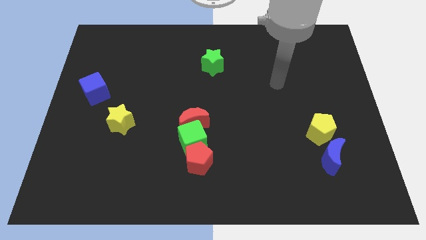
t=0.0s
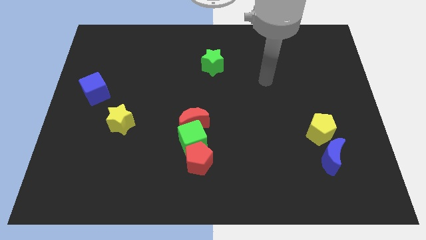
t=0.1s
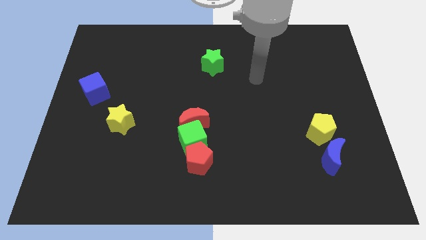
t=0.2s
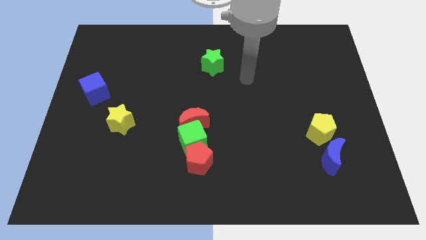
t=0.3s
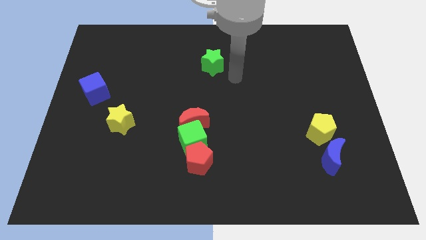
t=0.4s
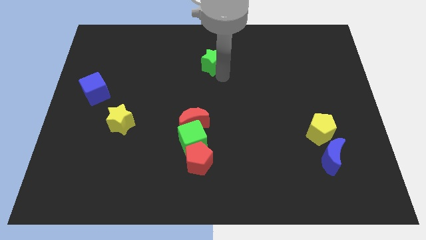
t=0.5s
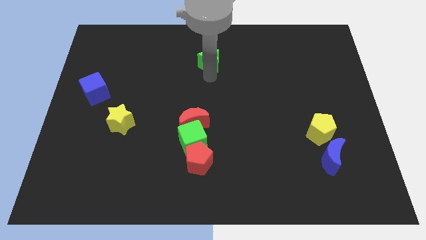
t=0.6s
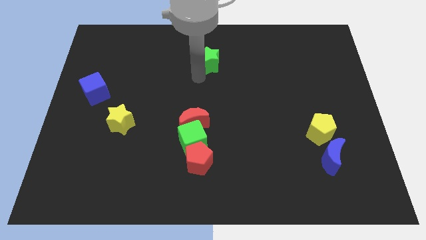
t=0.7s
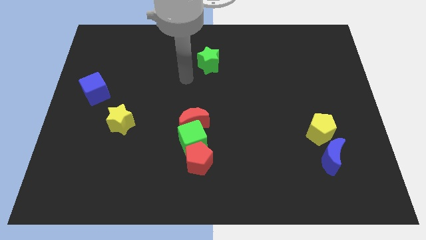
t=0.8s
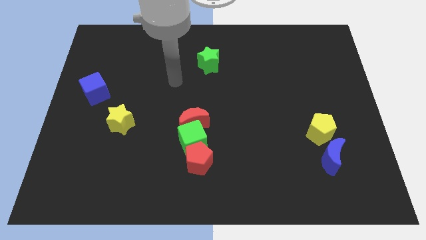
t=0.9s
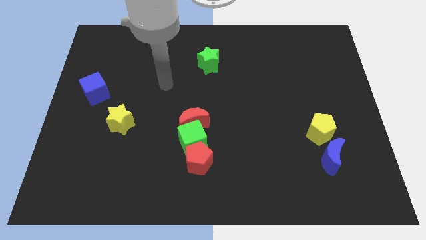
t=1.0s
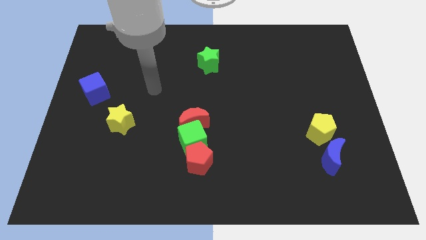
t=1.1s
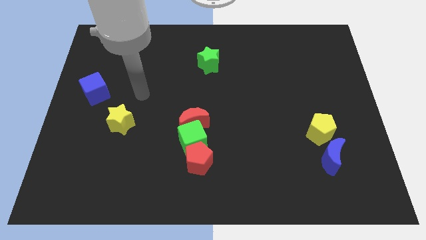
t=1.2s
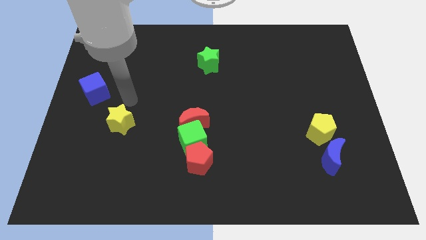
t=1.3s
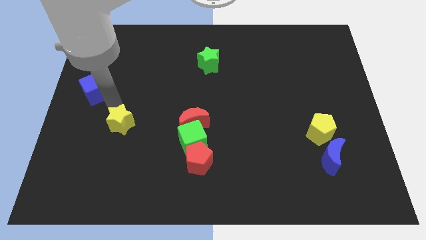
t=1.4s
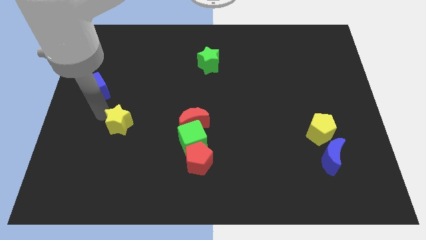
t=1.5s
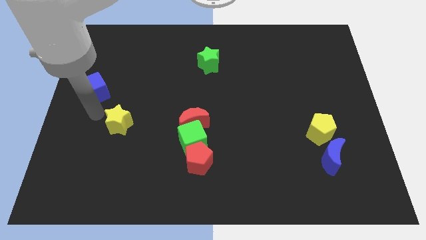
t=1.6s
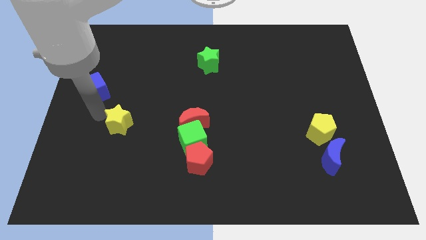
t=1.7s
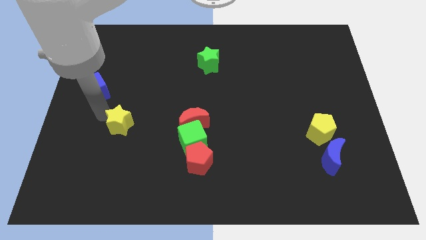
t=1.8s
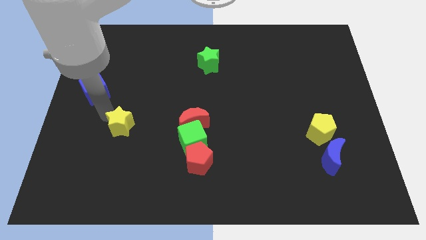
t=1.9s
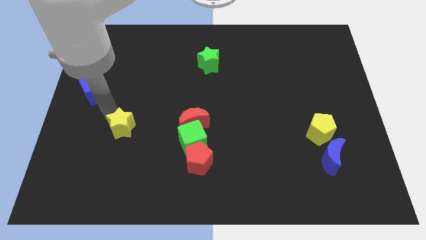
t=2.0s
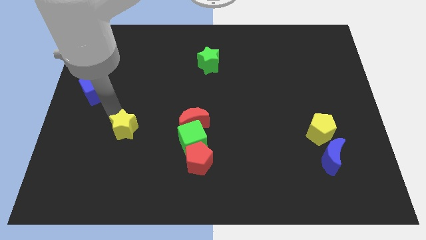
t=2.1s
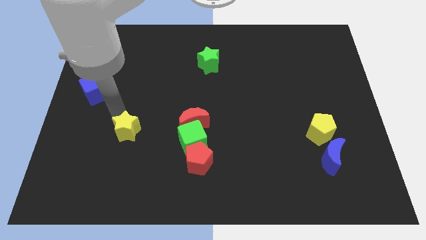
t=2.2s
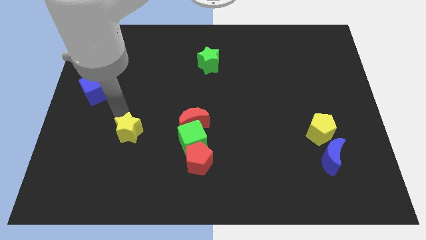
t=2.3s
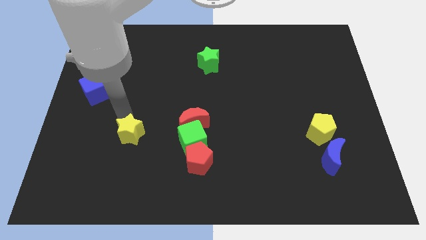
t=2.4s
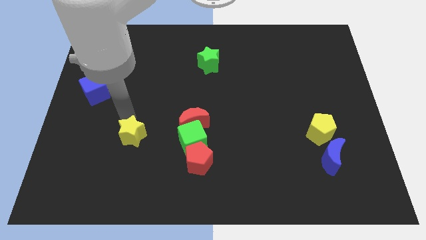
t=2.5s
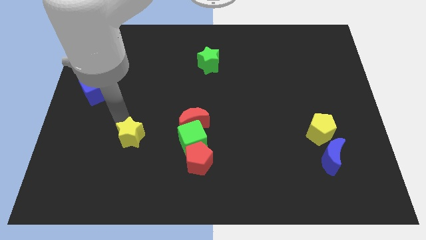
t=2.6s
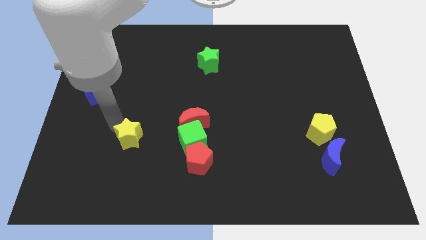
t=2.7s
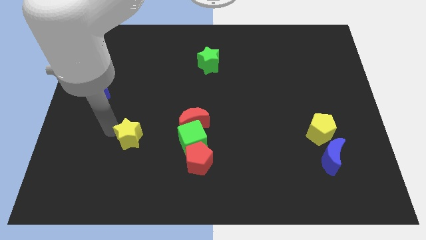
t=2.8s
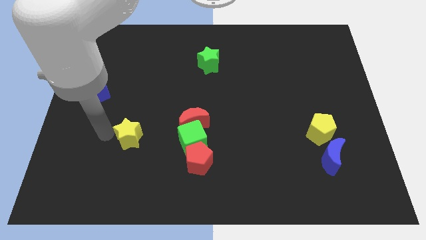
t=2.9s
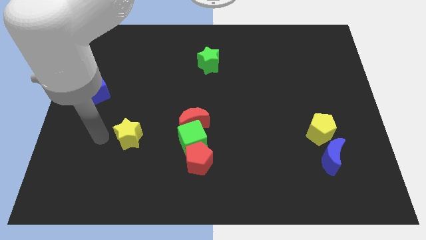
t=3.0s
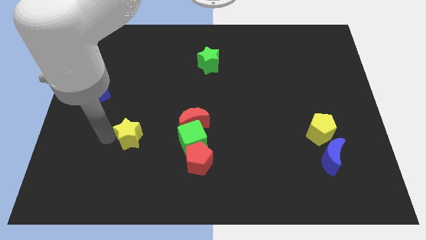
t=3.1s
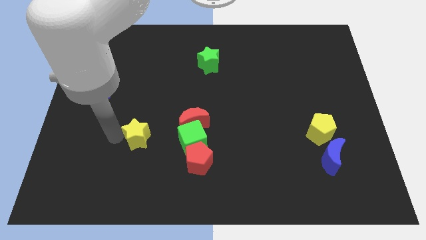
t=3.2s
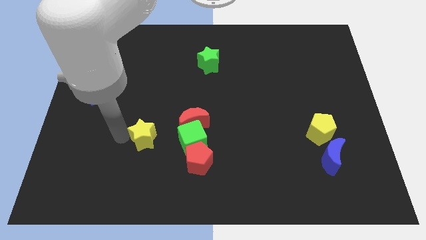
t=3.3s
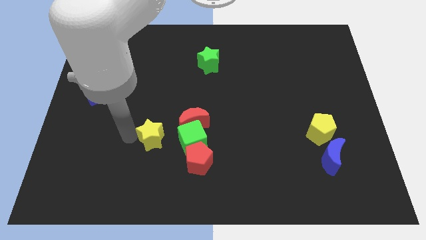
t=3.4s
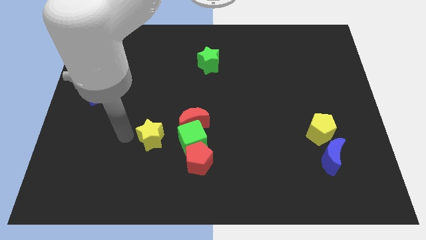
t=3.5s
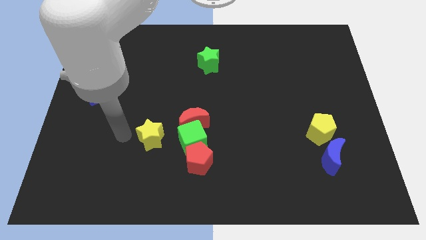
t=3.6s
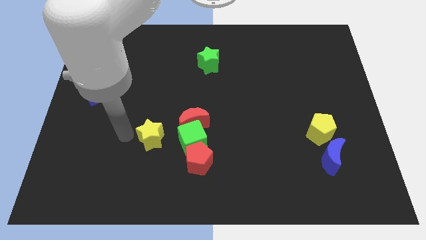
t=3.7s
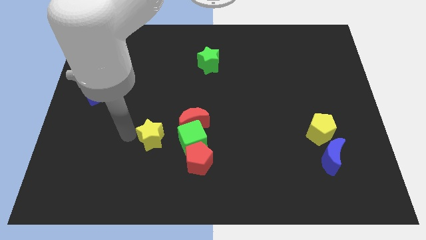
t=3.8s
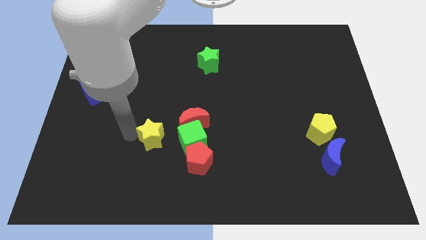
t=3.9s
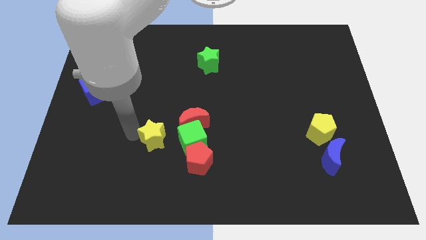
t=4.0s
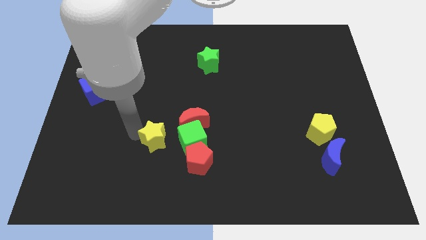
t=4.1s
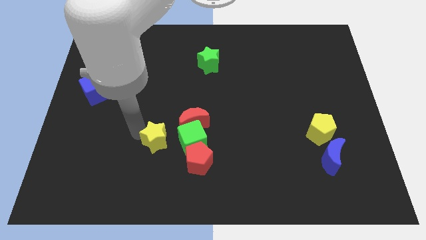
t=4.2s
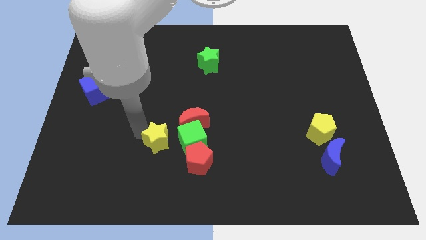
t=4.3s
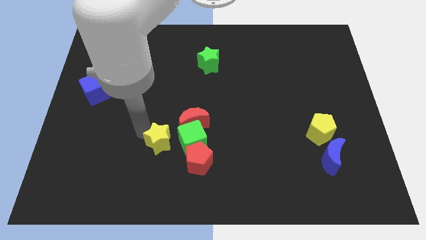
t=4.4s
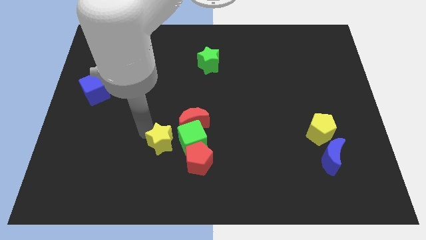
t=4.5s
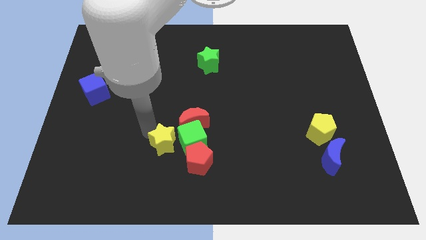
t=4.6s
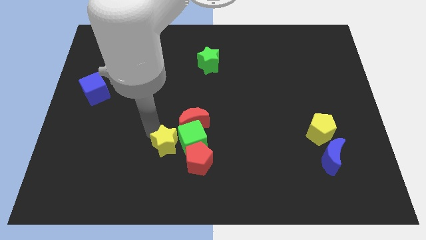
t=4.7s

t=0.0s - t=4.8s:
slide the yellow star close to the green cube

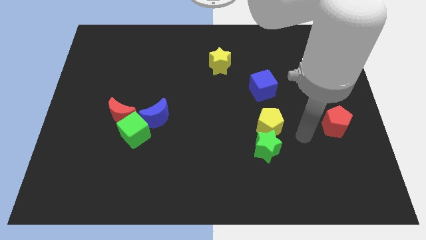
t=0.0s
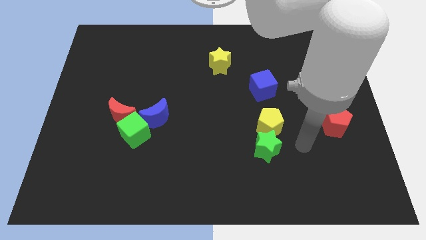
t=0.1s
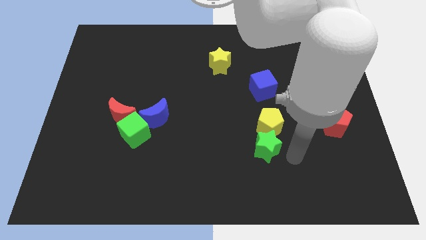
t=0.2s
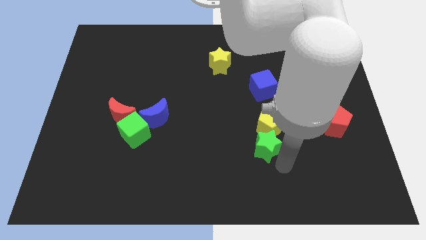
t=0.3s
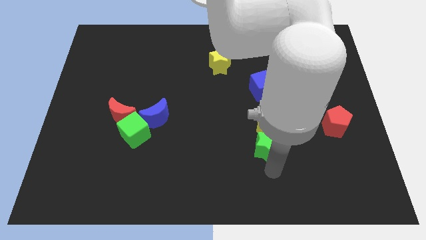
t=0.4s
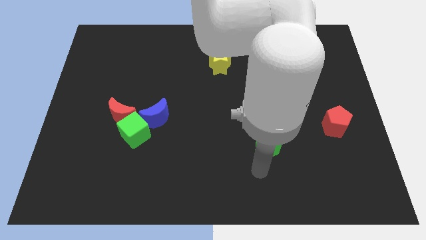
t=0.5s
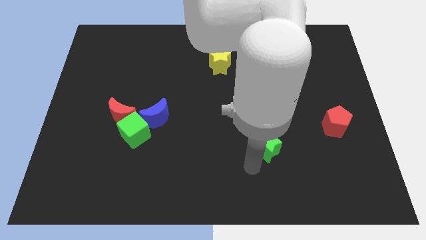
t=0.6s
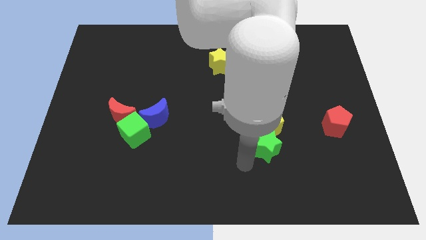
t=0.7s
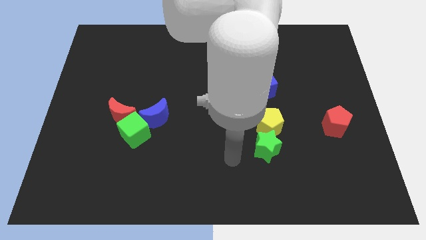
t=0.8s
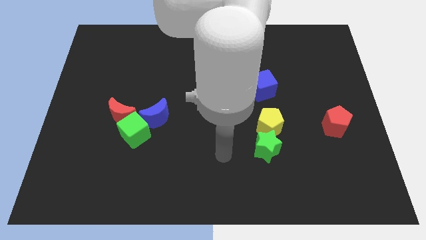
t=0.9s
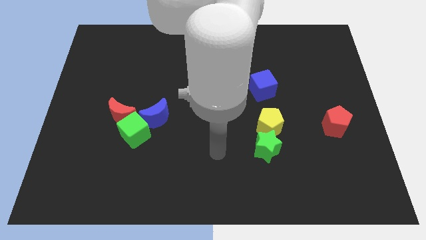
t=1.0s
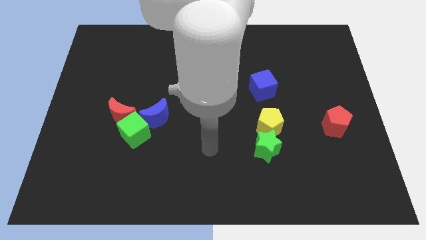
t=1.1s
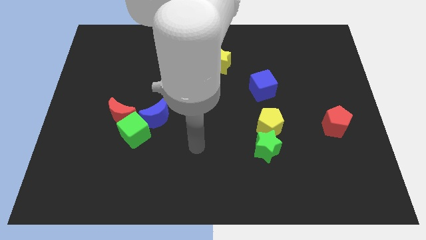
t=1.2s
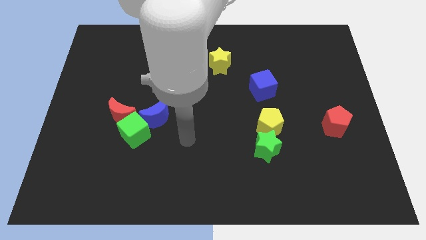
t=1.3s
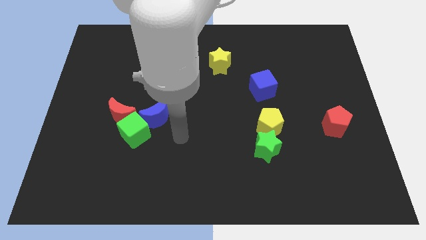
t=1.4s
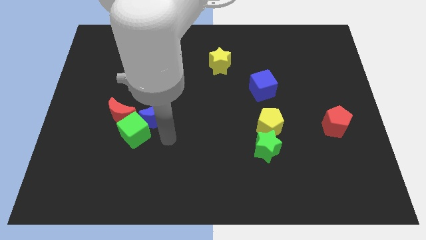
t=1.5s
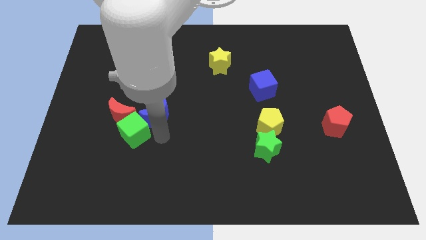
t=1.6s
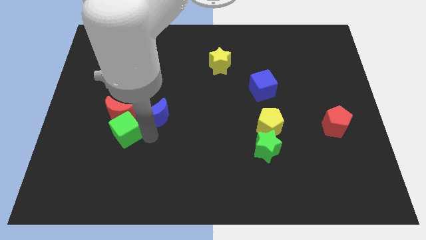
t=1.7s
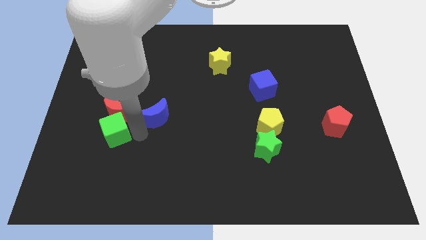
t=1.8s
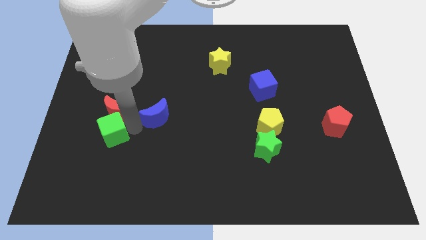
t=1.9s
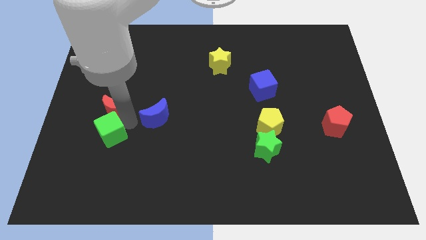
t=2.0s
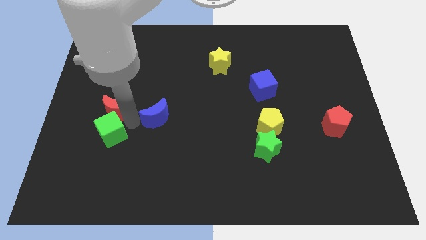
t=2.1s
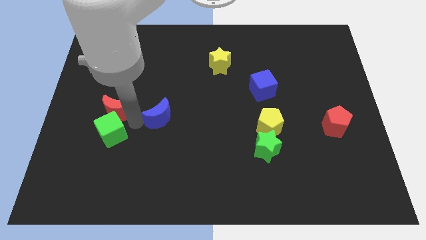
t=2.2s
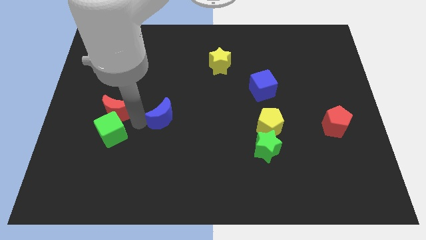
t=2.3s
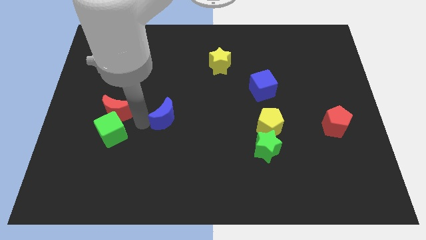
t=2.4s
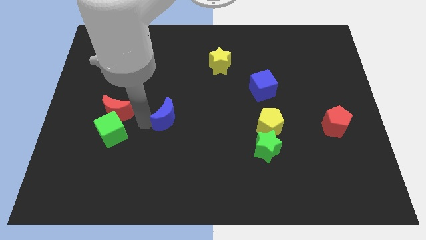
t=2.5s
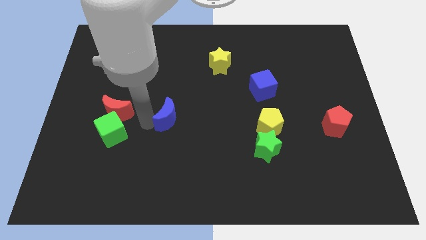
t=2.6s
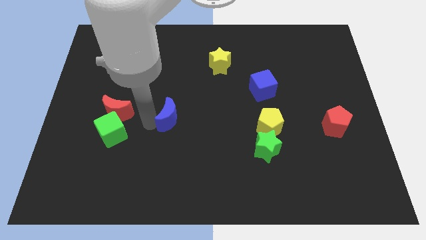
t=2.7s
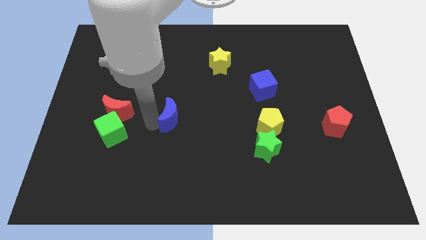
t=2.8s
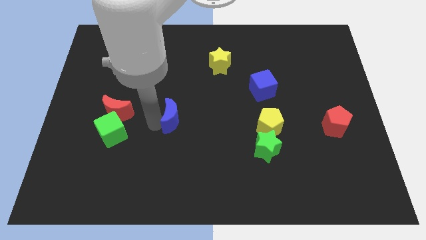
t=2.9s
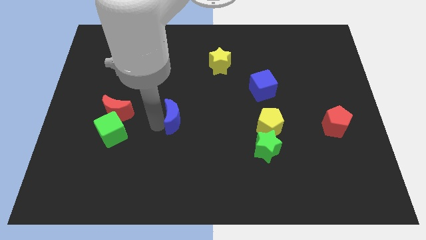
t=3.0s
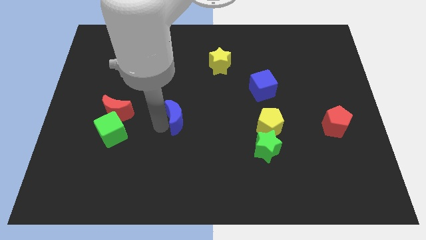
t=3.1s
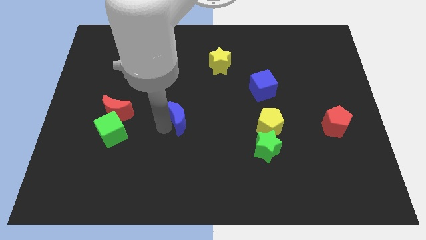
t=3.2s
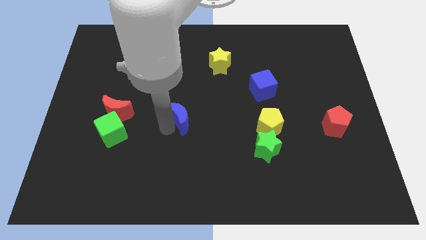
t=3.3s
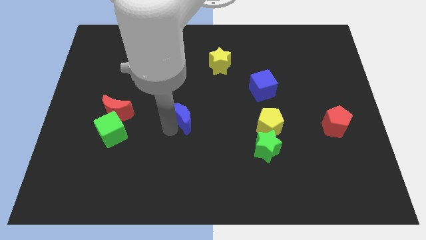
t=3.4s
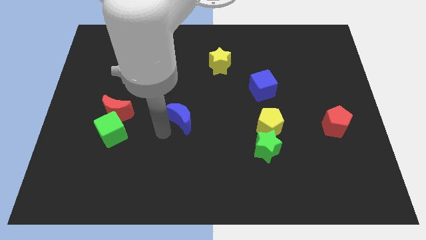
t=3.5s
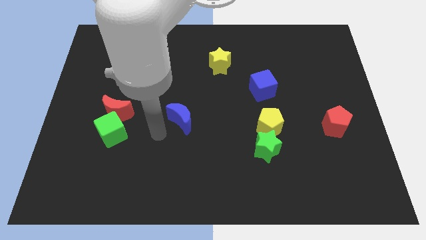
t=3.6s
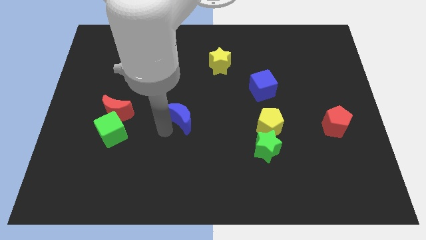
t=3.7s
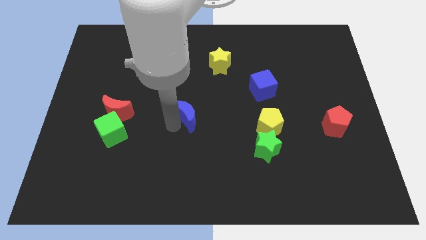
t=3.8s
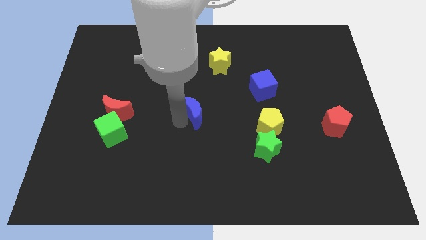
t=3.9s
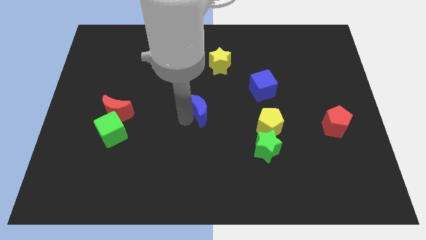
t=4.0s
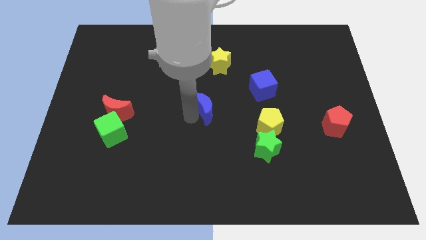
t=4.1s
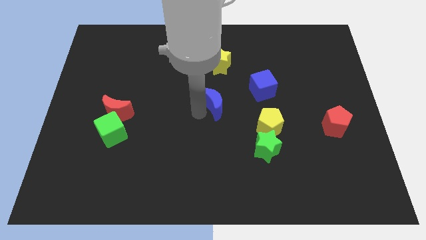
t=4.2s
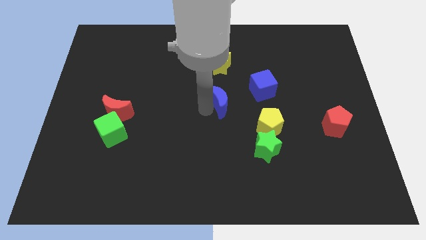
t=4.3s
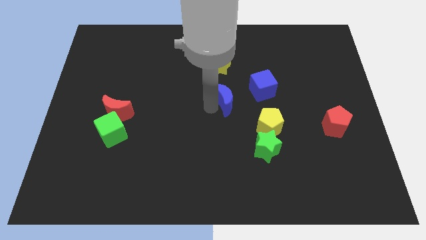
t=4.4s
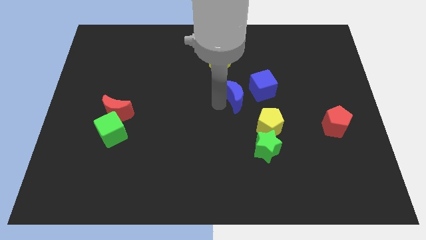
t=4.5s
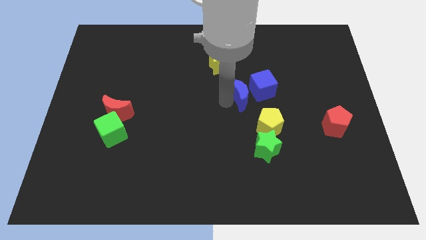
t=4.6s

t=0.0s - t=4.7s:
put the blue moon towards the blue cube
